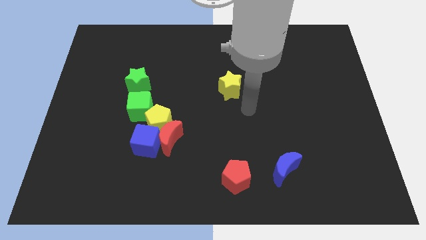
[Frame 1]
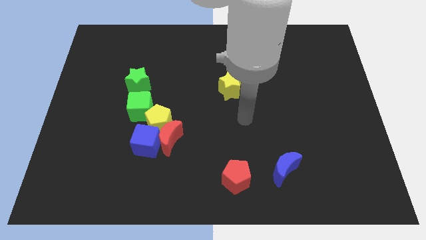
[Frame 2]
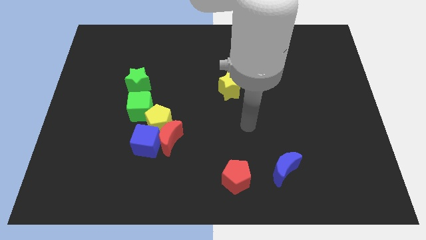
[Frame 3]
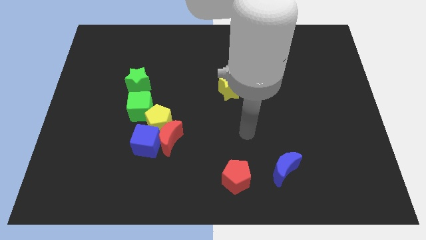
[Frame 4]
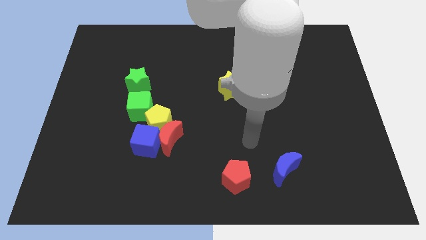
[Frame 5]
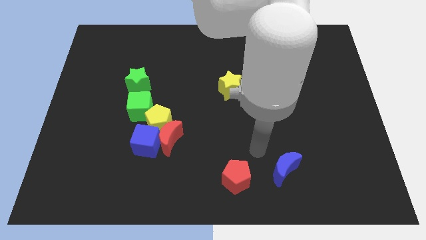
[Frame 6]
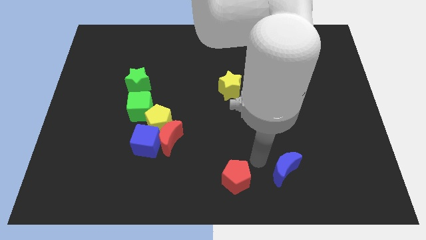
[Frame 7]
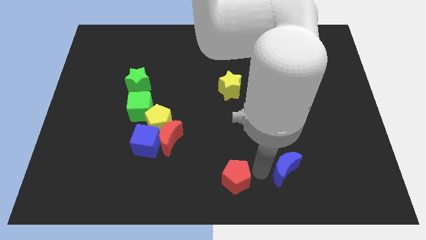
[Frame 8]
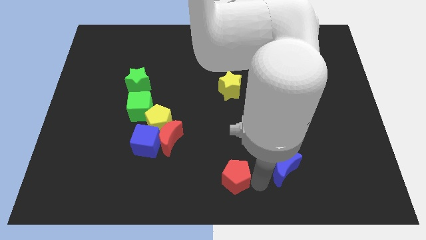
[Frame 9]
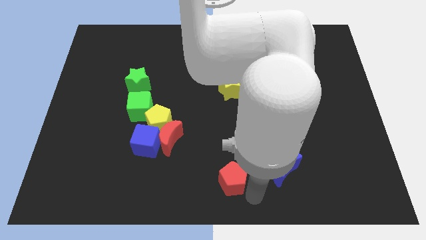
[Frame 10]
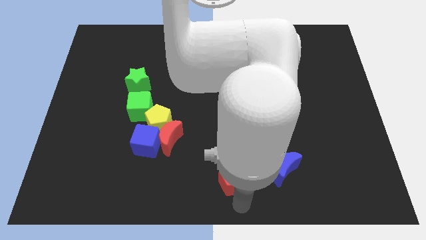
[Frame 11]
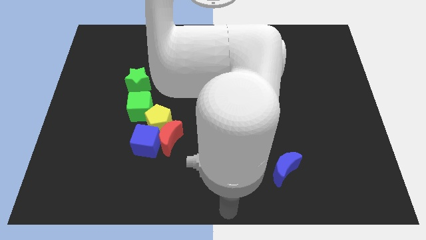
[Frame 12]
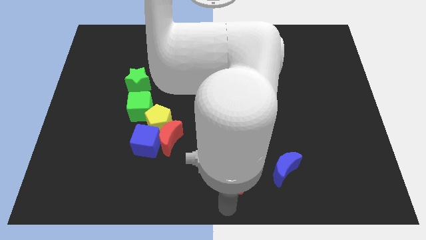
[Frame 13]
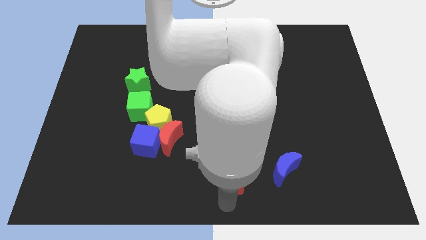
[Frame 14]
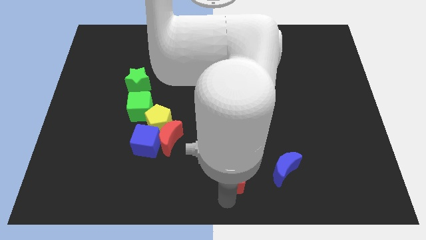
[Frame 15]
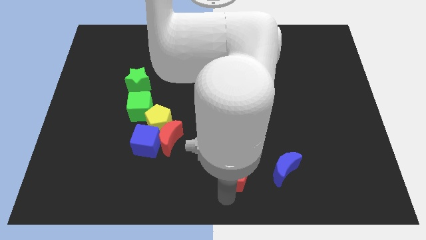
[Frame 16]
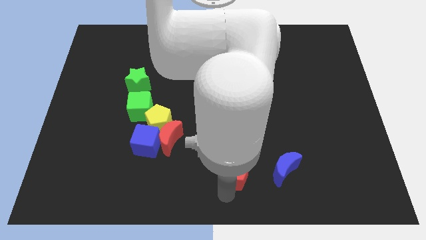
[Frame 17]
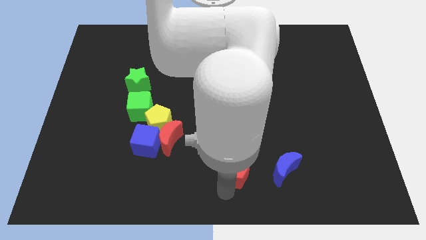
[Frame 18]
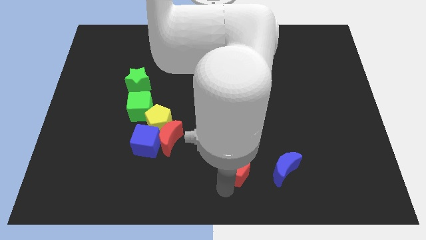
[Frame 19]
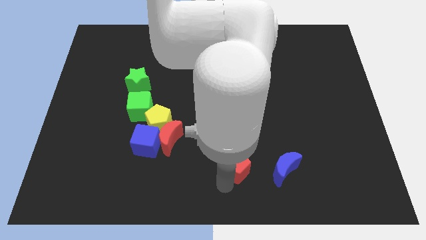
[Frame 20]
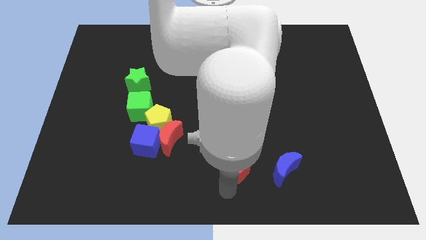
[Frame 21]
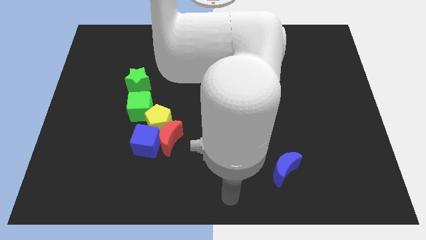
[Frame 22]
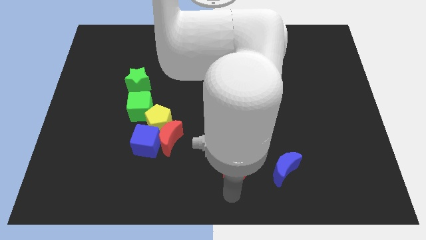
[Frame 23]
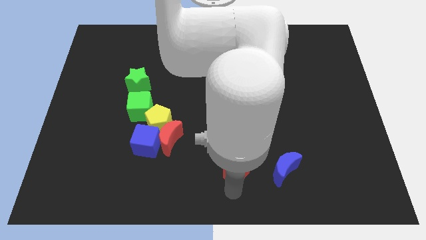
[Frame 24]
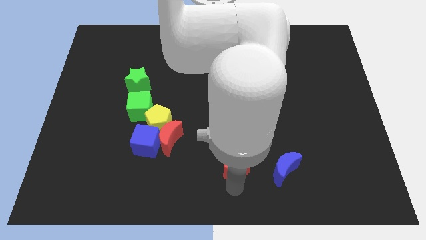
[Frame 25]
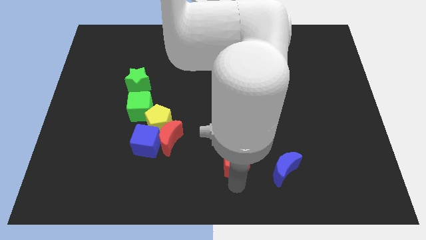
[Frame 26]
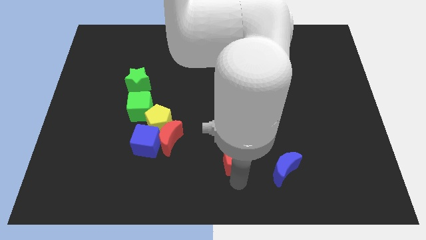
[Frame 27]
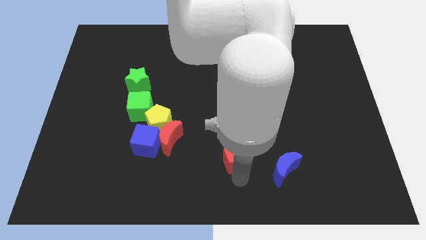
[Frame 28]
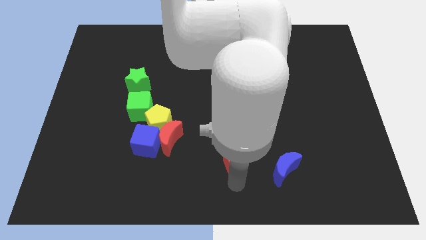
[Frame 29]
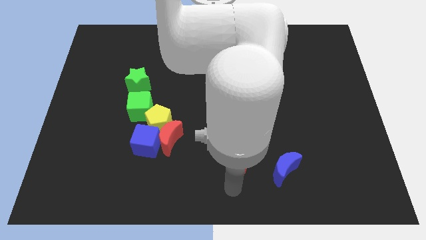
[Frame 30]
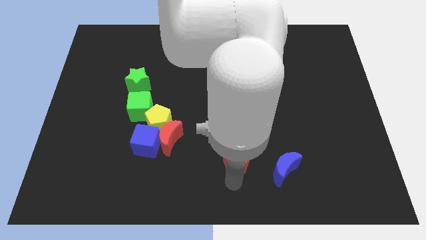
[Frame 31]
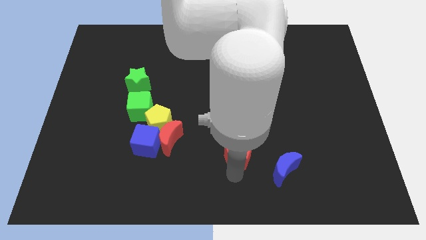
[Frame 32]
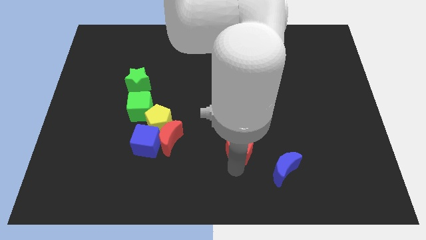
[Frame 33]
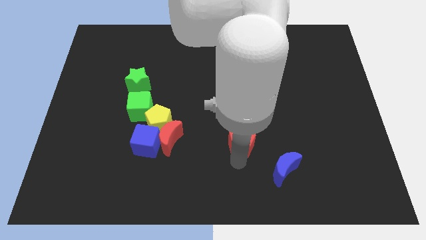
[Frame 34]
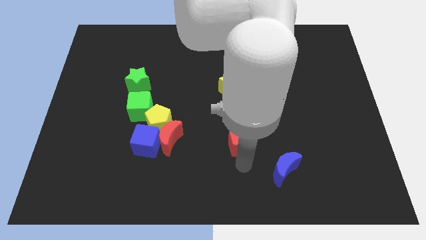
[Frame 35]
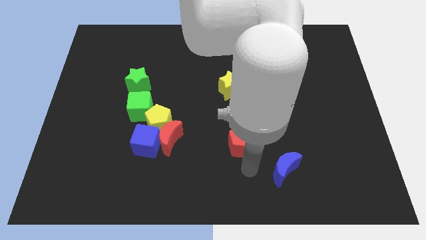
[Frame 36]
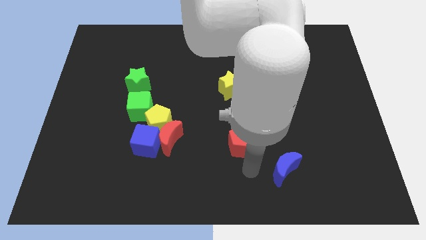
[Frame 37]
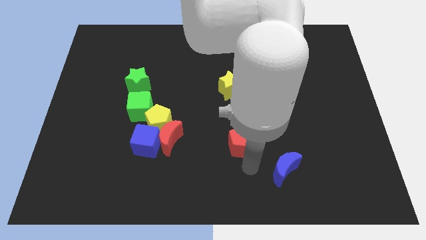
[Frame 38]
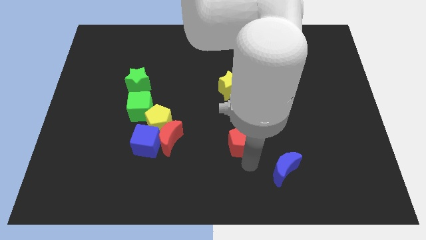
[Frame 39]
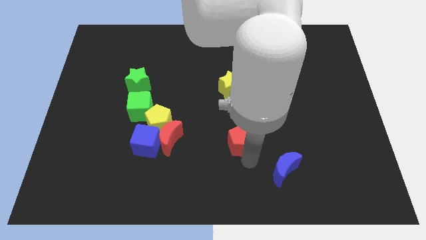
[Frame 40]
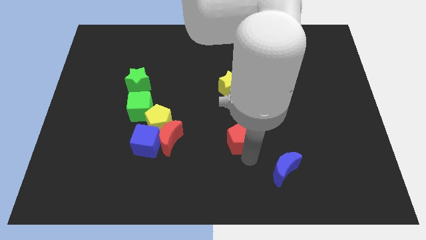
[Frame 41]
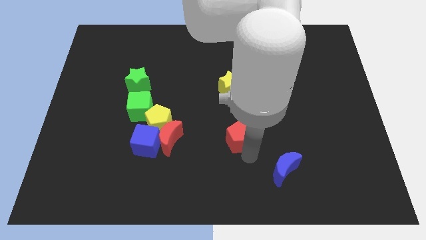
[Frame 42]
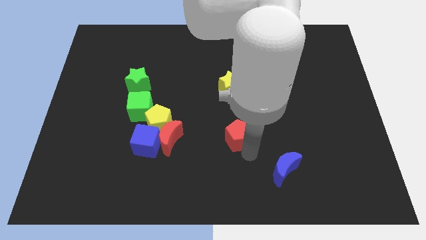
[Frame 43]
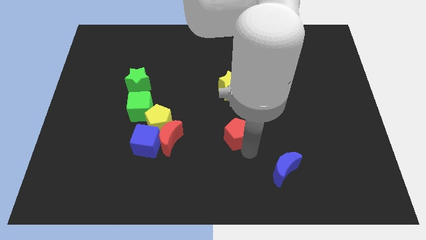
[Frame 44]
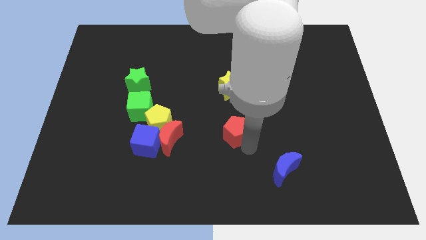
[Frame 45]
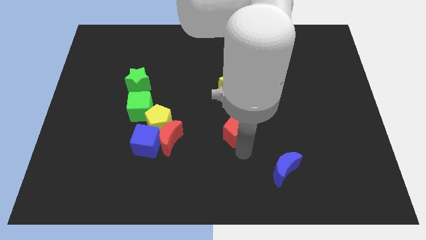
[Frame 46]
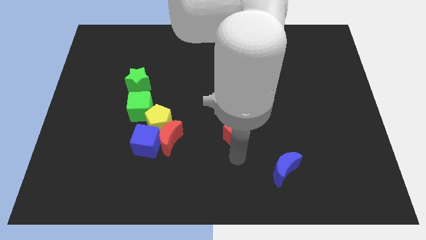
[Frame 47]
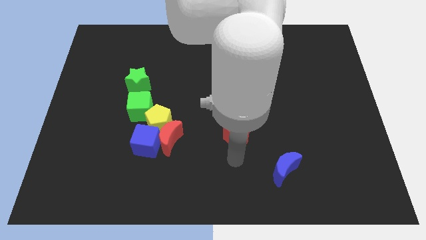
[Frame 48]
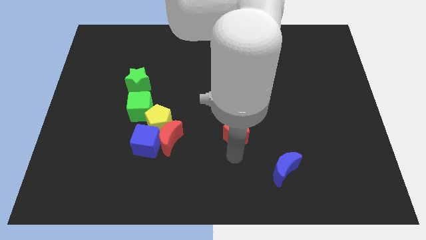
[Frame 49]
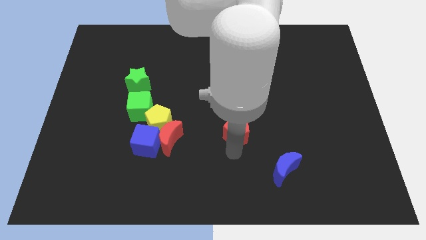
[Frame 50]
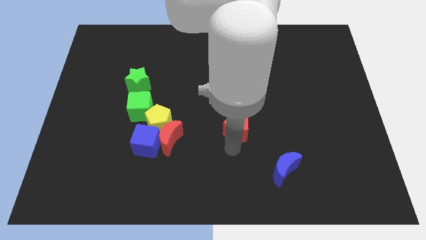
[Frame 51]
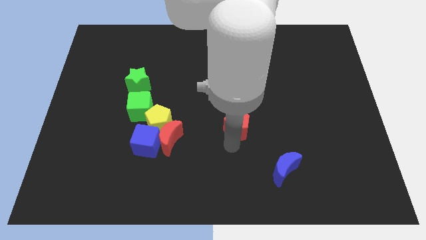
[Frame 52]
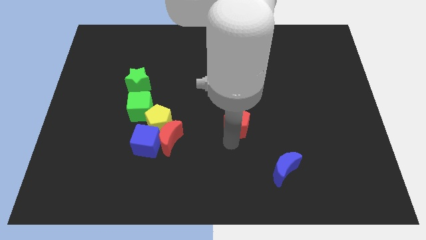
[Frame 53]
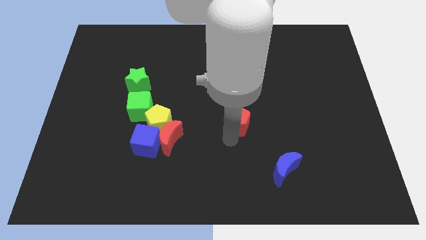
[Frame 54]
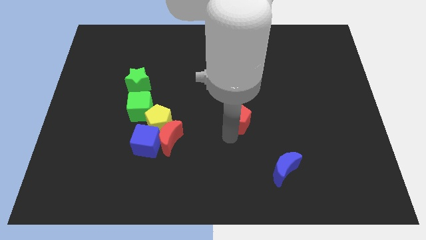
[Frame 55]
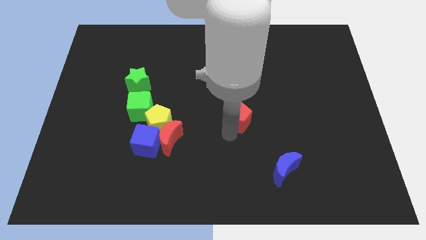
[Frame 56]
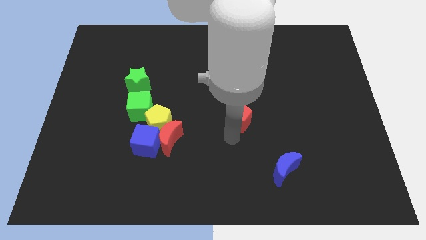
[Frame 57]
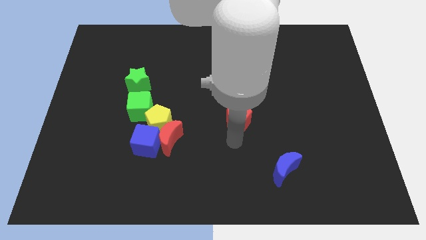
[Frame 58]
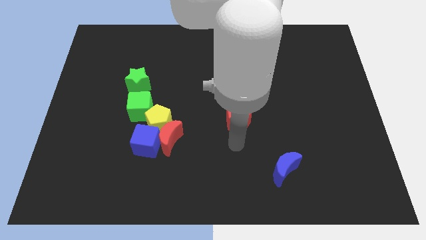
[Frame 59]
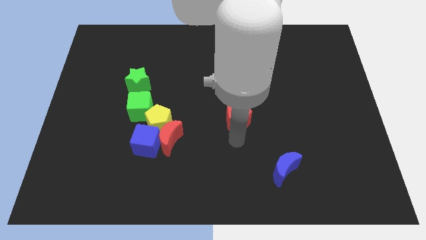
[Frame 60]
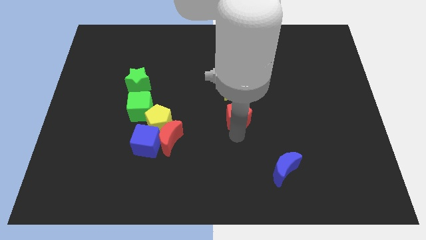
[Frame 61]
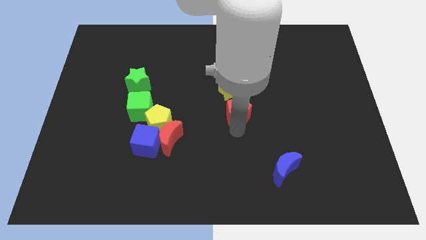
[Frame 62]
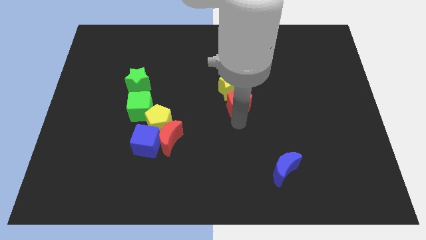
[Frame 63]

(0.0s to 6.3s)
move the red pentagon towards the yellow star
